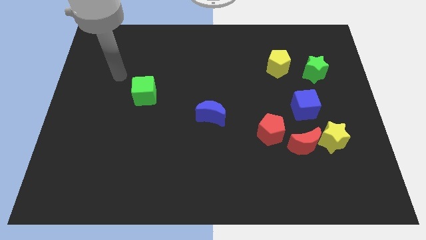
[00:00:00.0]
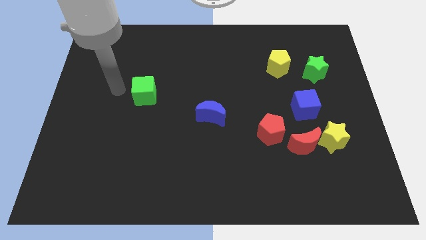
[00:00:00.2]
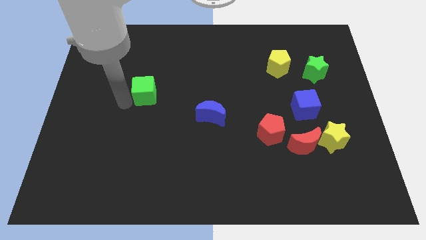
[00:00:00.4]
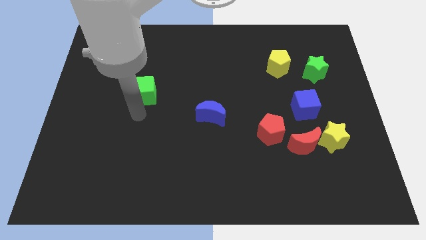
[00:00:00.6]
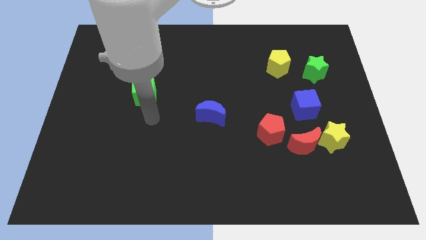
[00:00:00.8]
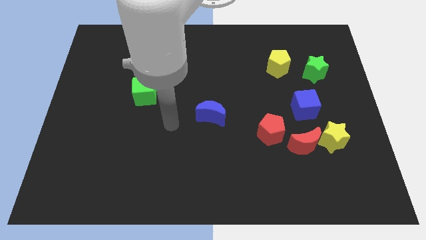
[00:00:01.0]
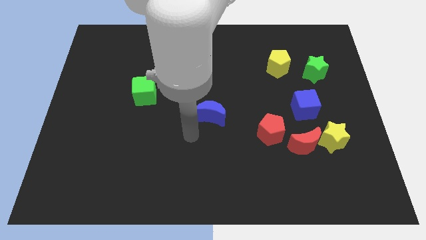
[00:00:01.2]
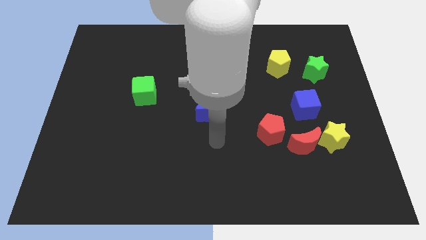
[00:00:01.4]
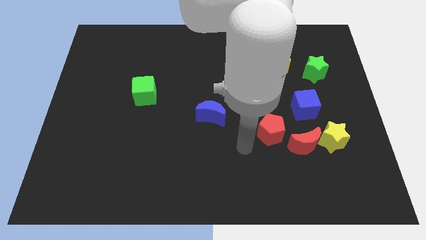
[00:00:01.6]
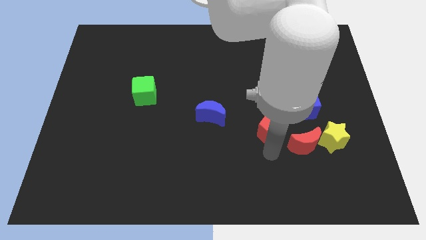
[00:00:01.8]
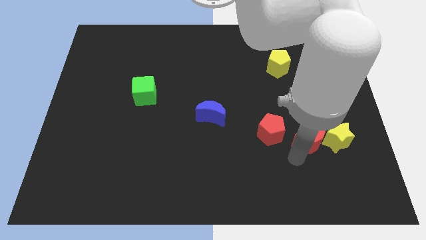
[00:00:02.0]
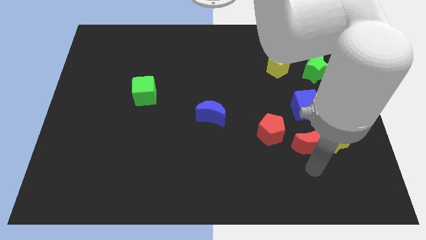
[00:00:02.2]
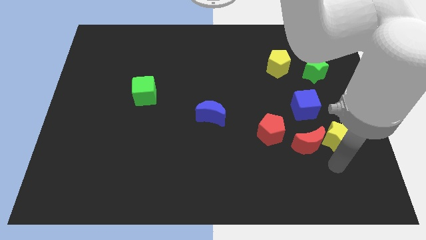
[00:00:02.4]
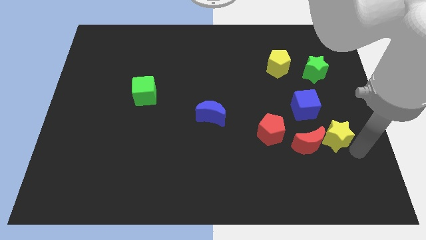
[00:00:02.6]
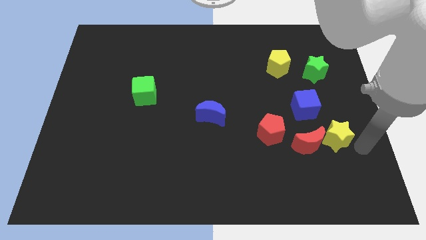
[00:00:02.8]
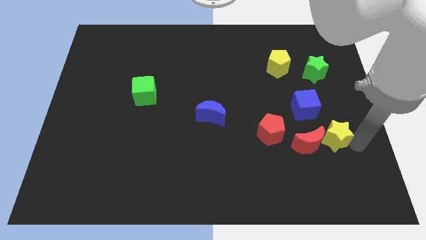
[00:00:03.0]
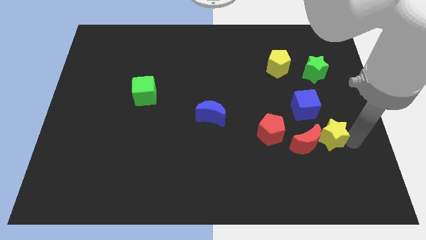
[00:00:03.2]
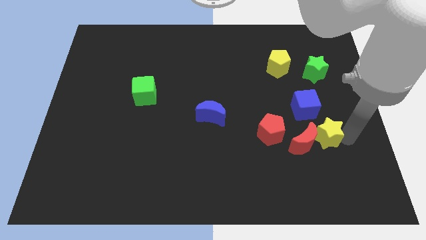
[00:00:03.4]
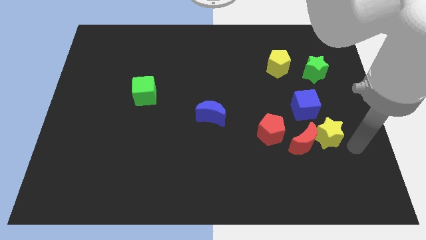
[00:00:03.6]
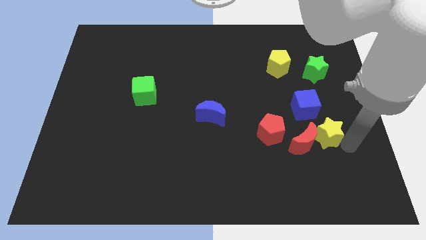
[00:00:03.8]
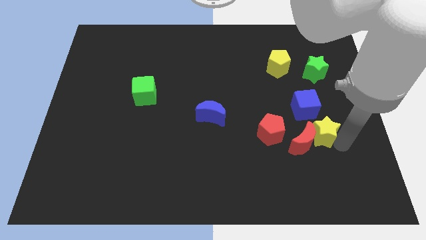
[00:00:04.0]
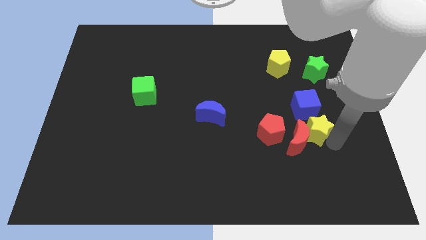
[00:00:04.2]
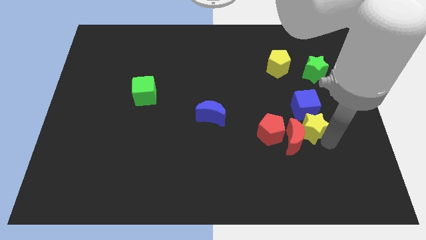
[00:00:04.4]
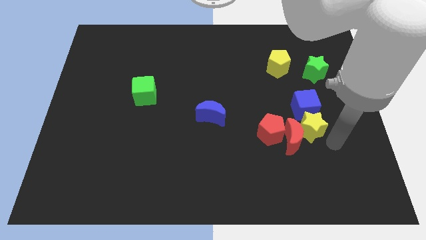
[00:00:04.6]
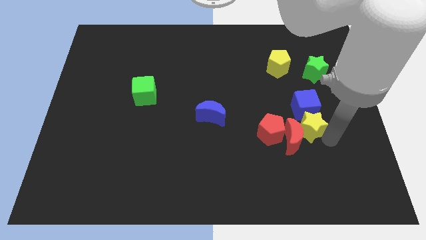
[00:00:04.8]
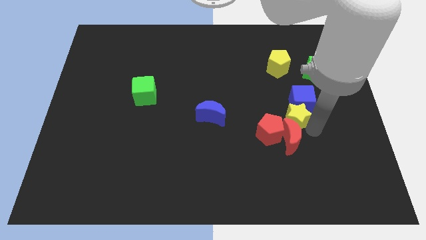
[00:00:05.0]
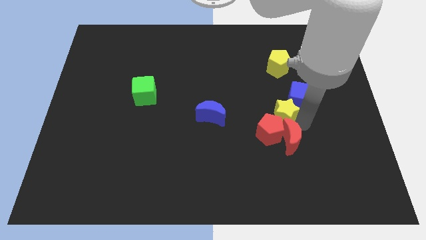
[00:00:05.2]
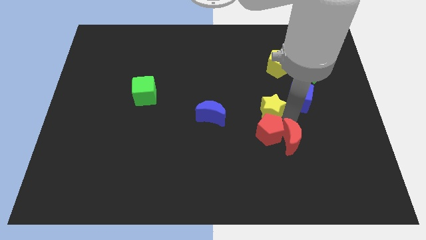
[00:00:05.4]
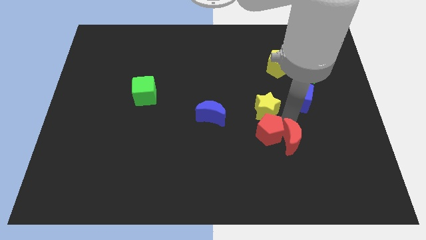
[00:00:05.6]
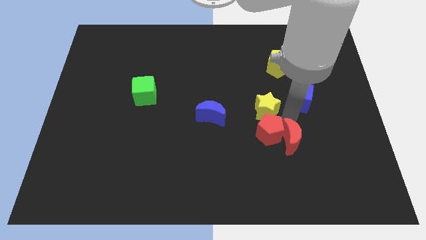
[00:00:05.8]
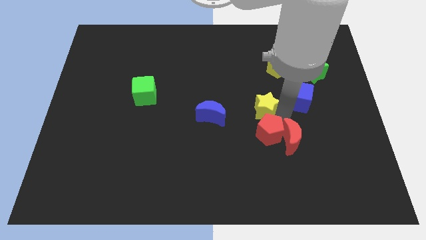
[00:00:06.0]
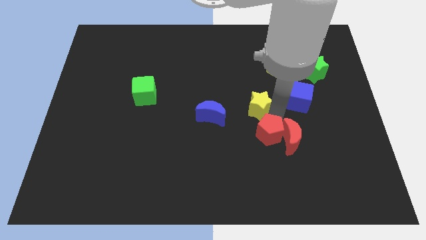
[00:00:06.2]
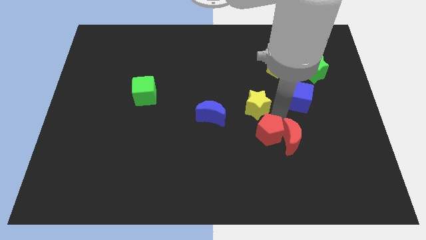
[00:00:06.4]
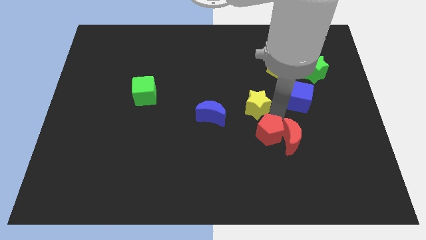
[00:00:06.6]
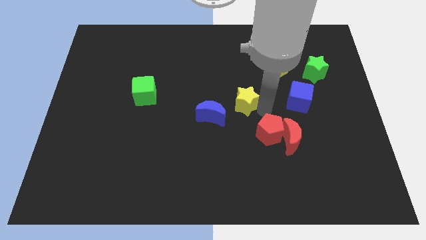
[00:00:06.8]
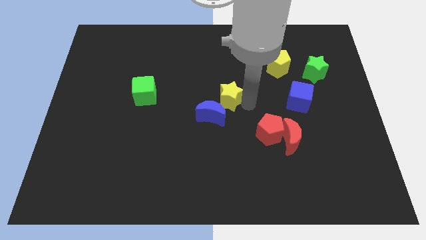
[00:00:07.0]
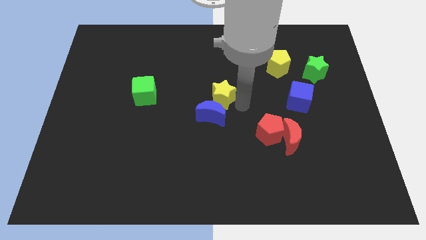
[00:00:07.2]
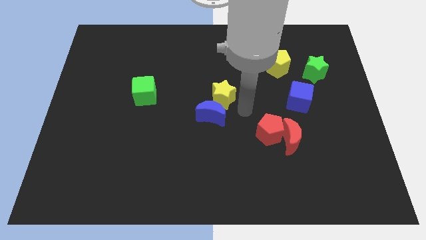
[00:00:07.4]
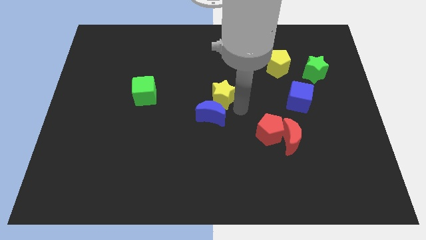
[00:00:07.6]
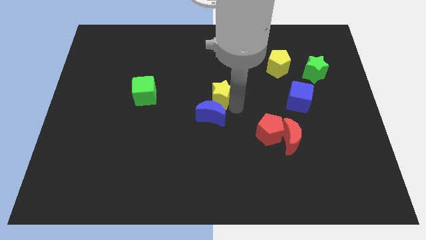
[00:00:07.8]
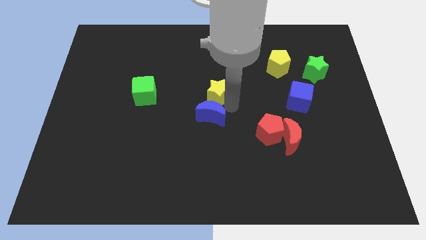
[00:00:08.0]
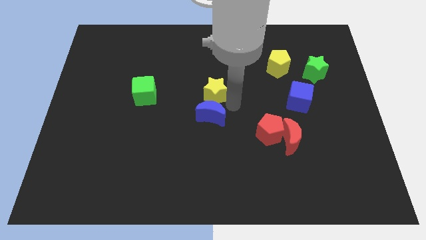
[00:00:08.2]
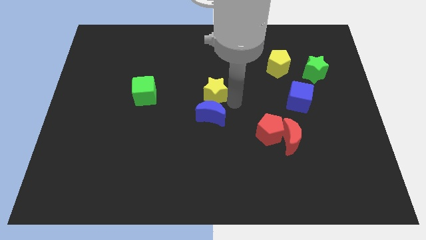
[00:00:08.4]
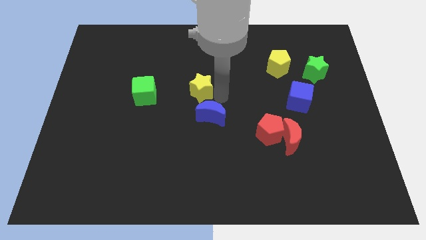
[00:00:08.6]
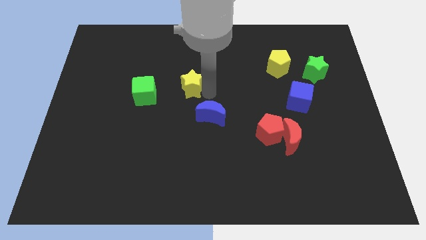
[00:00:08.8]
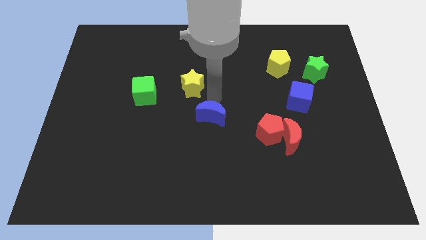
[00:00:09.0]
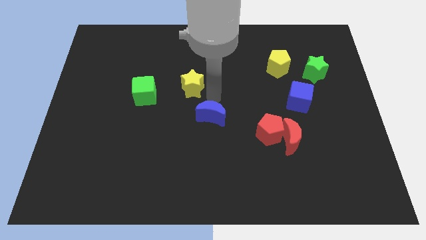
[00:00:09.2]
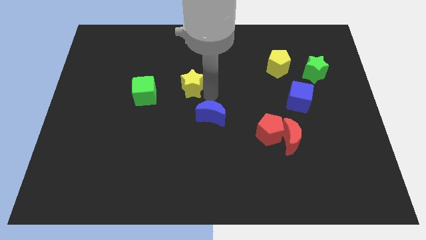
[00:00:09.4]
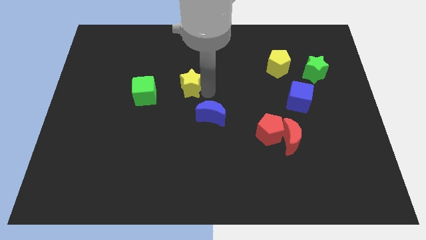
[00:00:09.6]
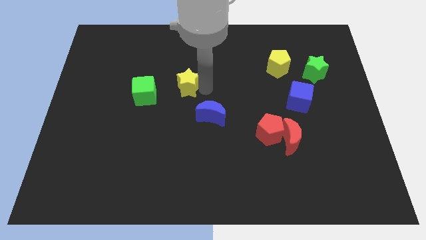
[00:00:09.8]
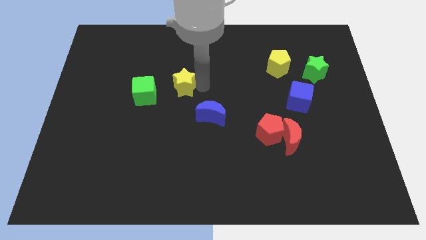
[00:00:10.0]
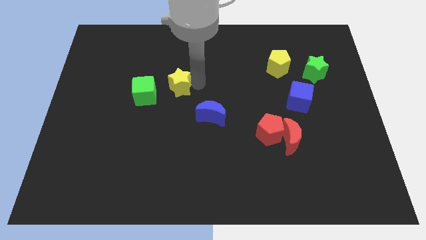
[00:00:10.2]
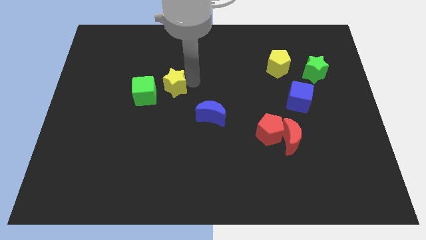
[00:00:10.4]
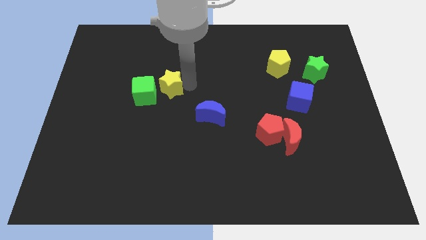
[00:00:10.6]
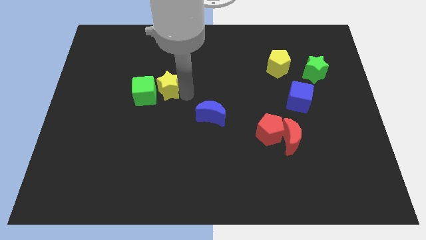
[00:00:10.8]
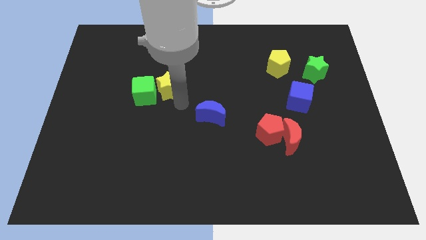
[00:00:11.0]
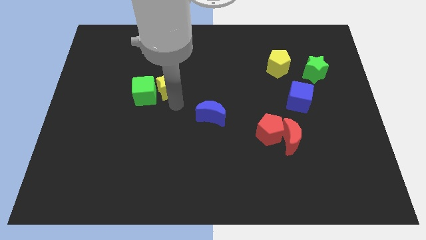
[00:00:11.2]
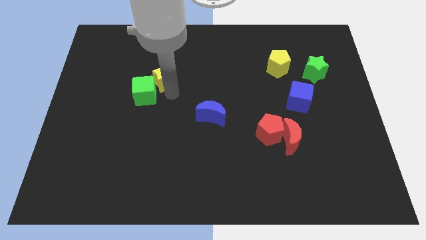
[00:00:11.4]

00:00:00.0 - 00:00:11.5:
put the yellow star above the green cube

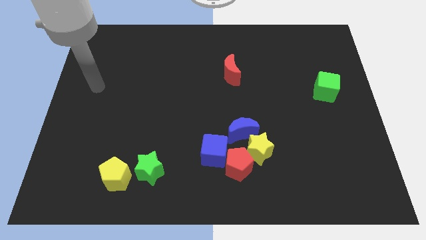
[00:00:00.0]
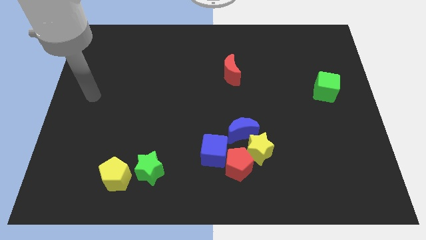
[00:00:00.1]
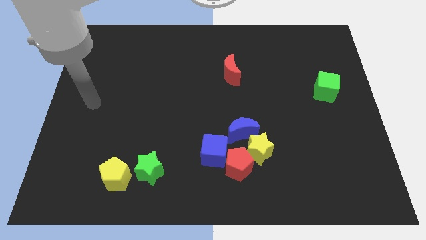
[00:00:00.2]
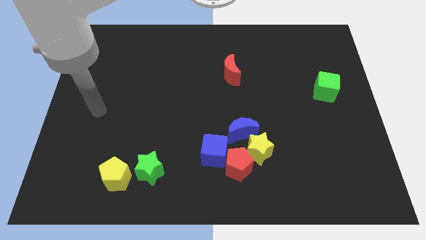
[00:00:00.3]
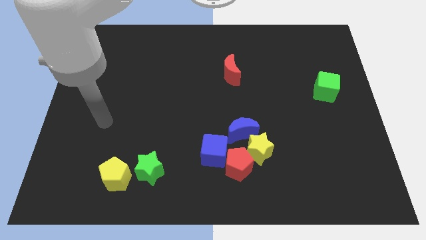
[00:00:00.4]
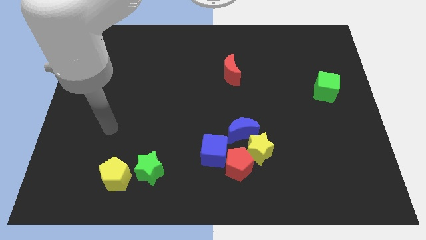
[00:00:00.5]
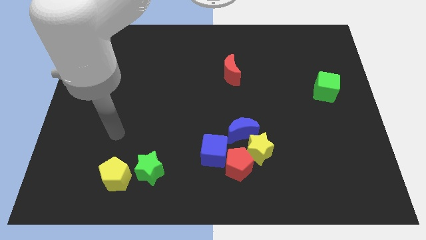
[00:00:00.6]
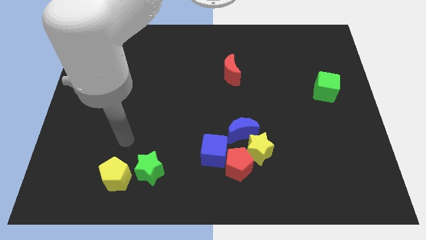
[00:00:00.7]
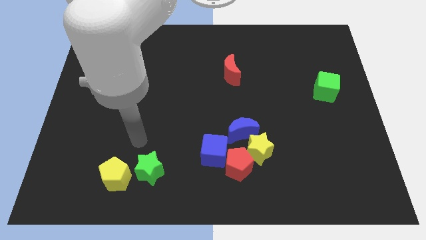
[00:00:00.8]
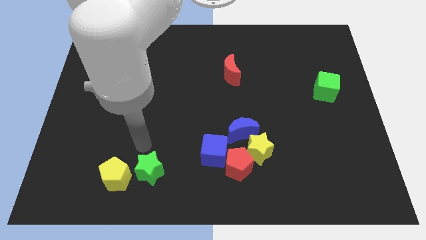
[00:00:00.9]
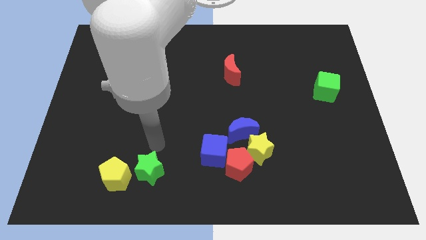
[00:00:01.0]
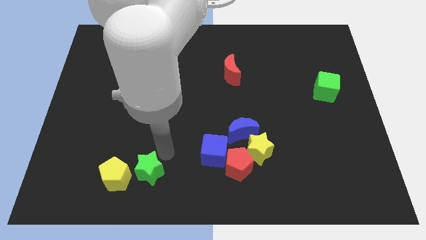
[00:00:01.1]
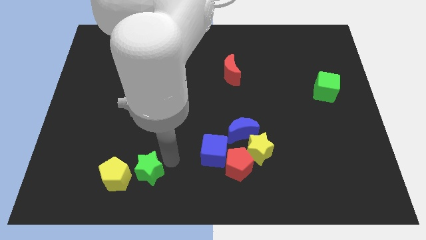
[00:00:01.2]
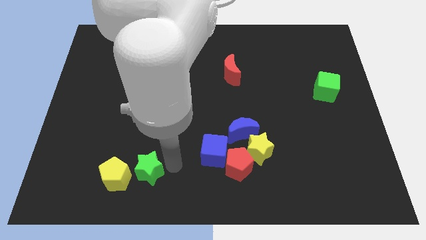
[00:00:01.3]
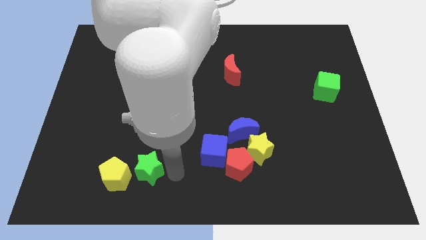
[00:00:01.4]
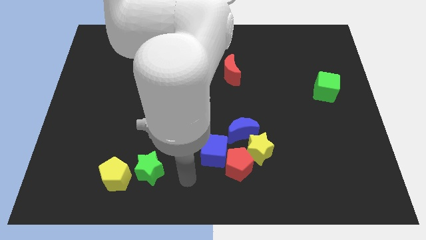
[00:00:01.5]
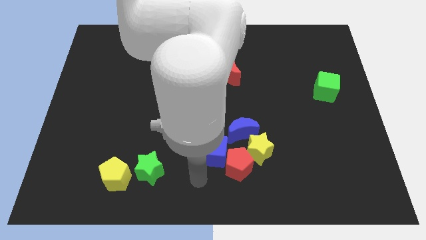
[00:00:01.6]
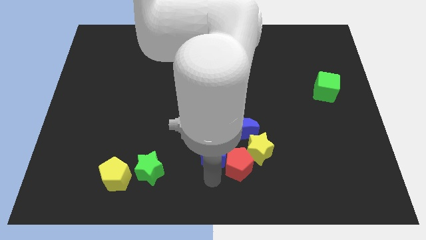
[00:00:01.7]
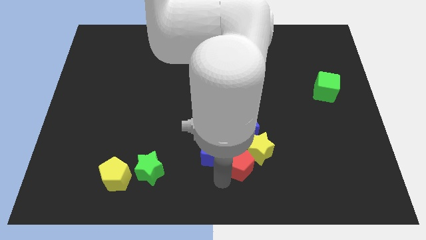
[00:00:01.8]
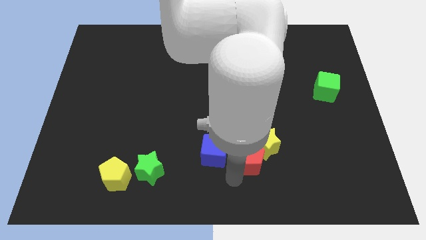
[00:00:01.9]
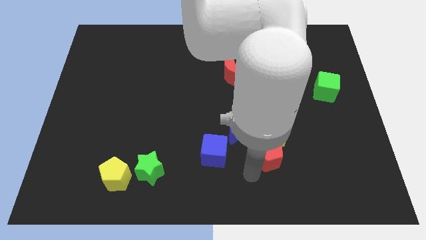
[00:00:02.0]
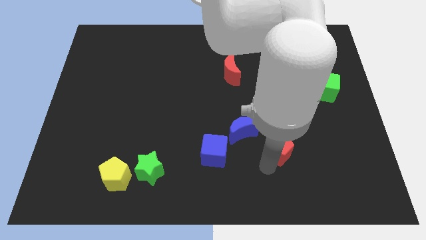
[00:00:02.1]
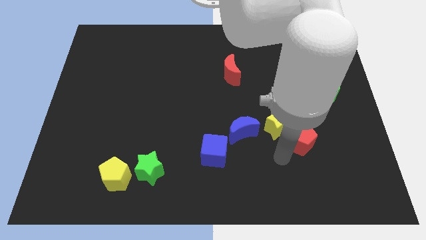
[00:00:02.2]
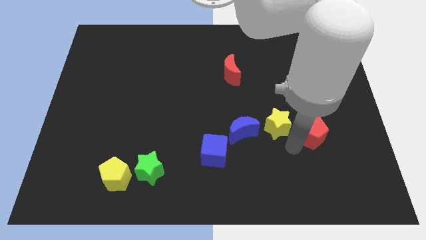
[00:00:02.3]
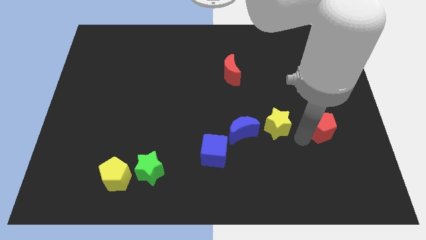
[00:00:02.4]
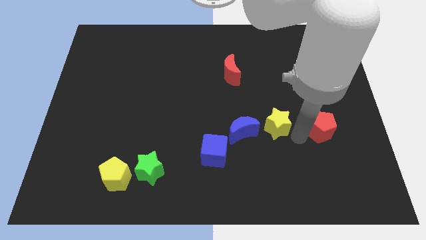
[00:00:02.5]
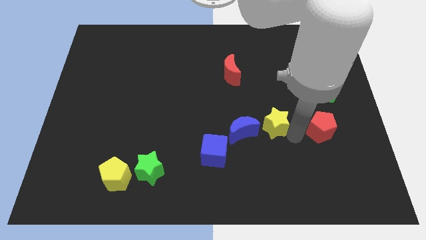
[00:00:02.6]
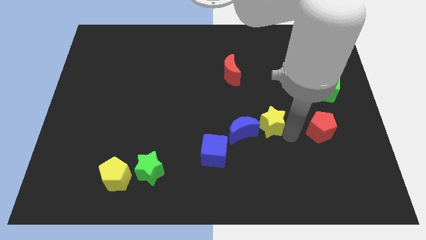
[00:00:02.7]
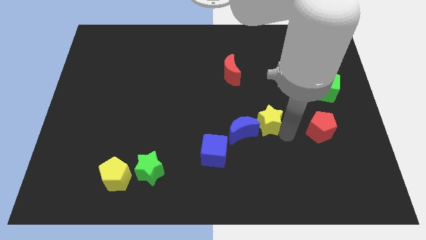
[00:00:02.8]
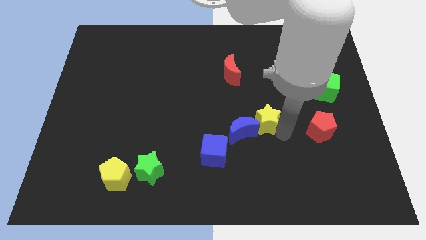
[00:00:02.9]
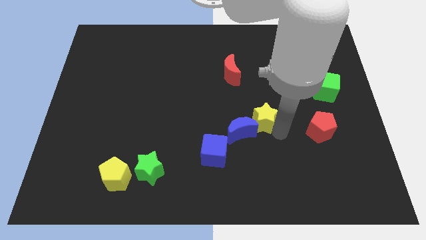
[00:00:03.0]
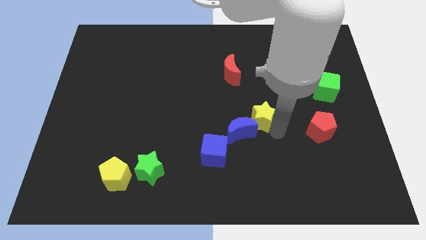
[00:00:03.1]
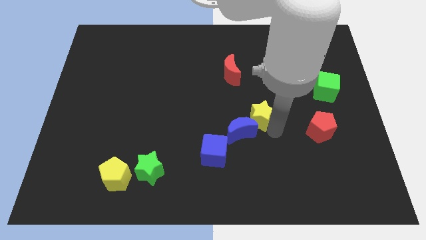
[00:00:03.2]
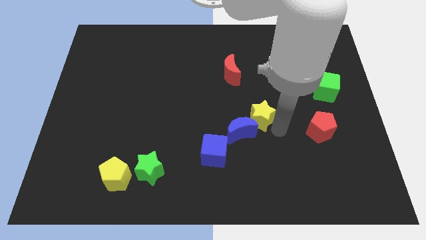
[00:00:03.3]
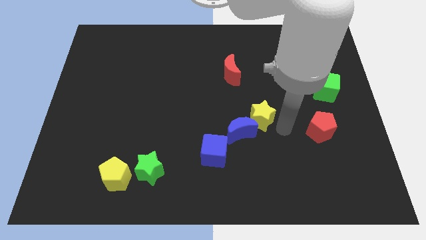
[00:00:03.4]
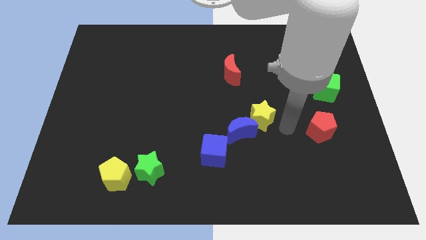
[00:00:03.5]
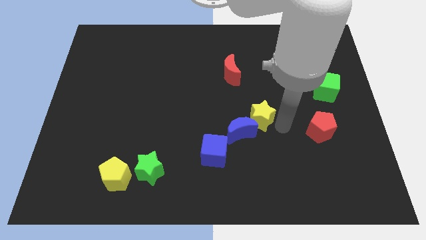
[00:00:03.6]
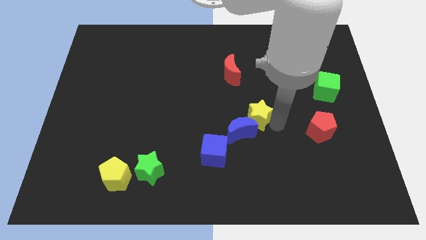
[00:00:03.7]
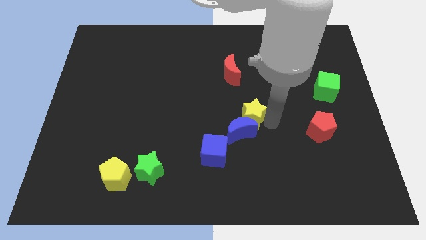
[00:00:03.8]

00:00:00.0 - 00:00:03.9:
move the yellow star below the red moon
